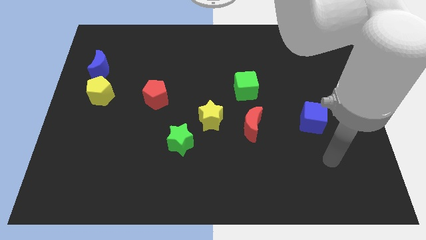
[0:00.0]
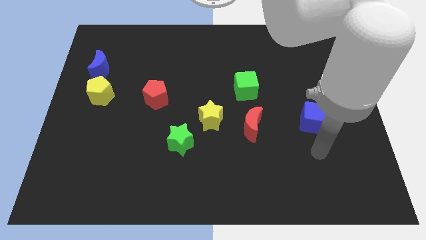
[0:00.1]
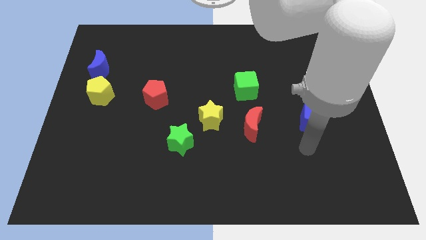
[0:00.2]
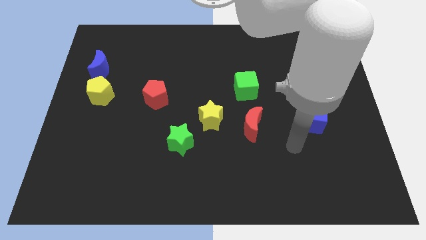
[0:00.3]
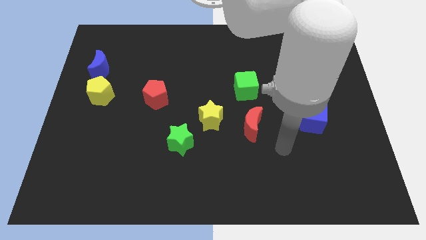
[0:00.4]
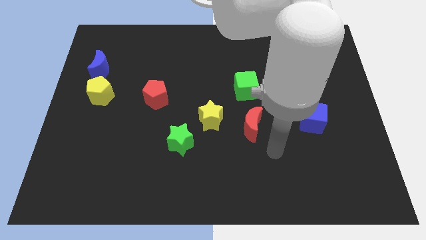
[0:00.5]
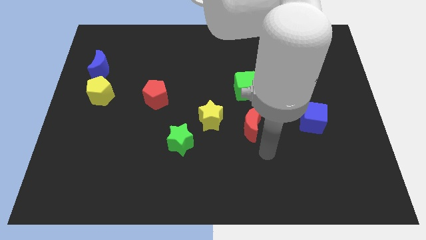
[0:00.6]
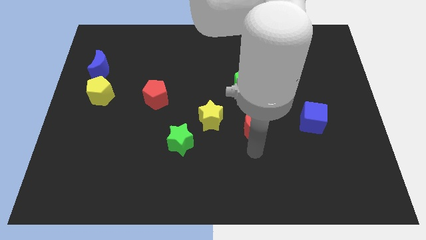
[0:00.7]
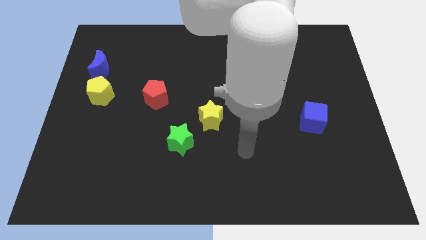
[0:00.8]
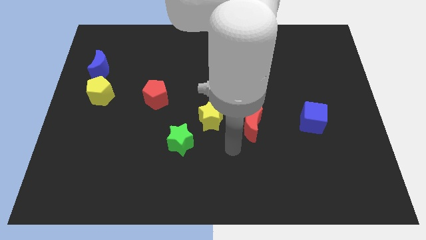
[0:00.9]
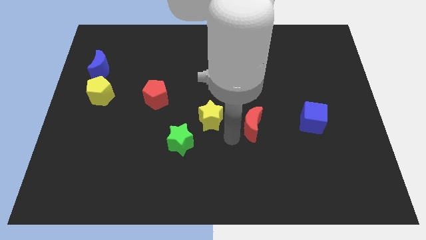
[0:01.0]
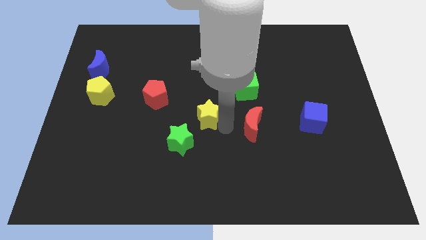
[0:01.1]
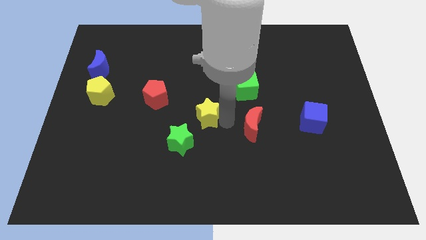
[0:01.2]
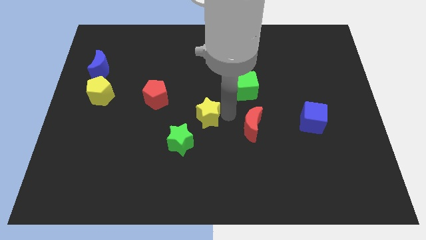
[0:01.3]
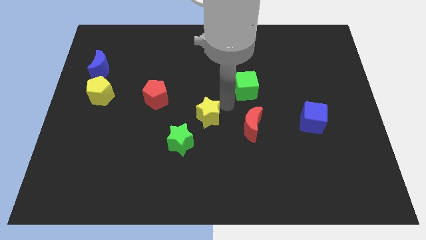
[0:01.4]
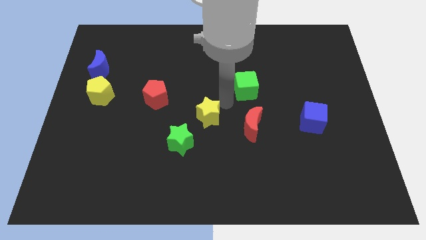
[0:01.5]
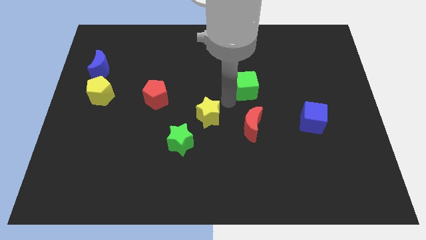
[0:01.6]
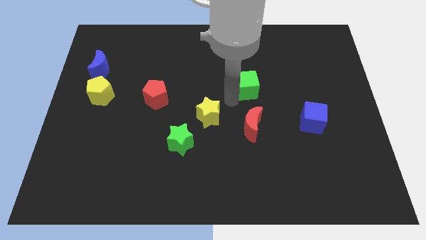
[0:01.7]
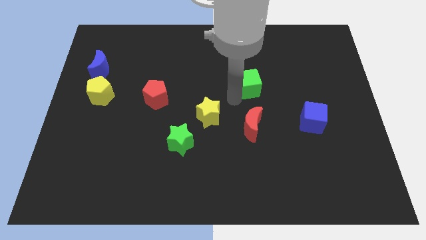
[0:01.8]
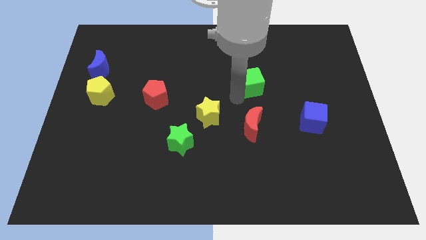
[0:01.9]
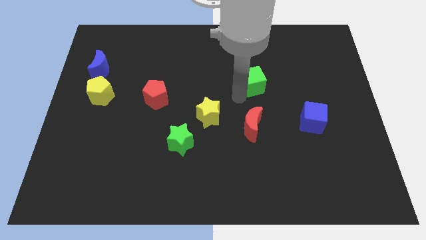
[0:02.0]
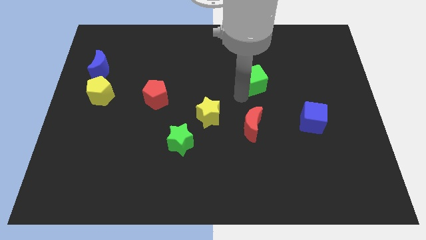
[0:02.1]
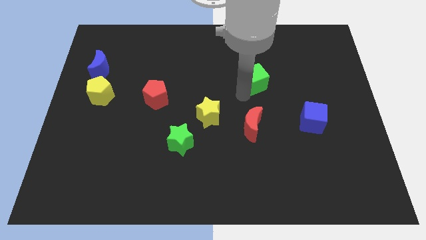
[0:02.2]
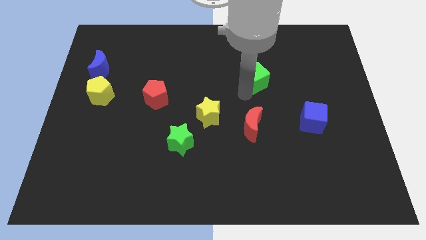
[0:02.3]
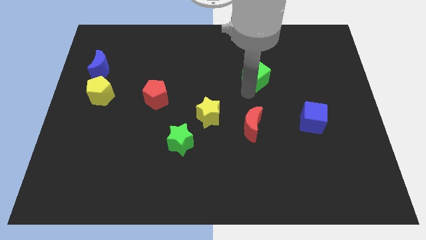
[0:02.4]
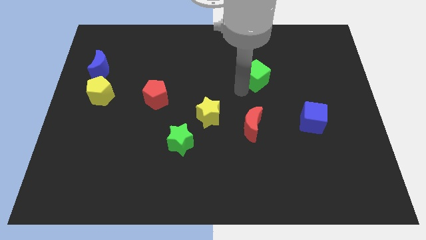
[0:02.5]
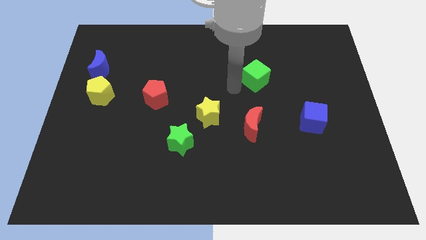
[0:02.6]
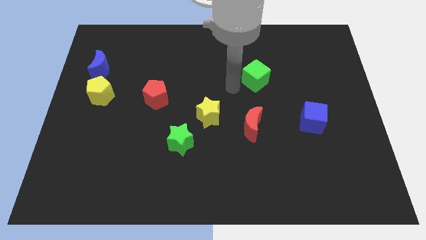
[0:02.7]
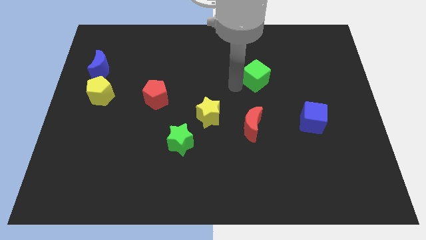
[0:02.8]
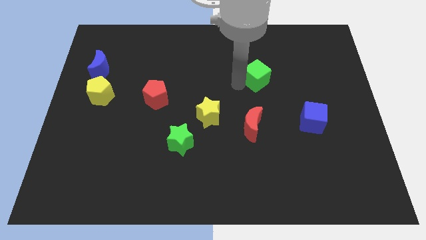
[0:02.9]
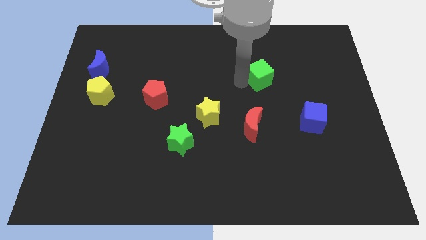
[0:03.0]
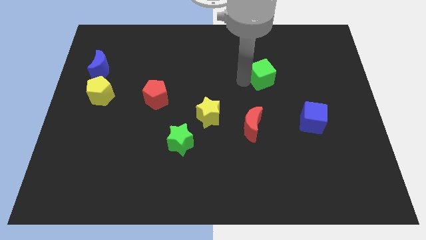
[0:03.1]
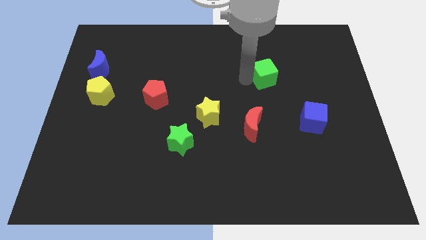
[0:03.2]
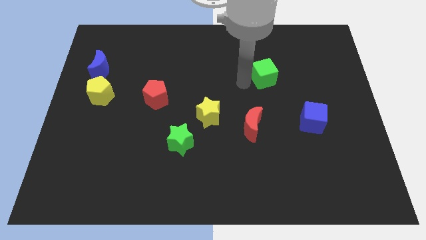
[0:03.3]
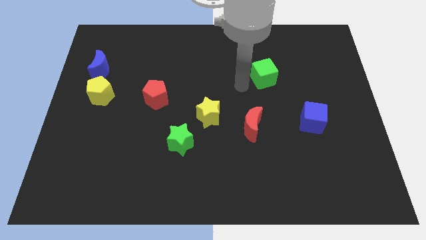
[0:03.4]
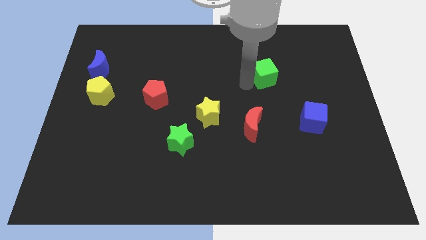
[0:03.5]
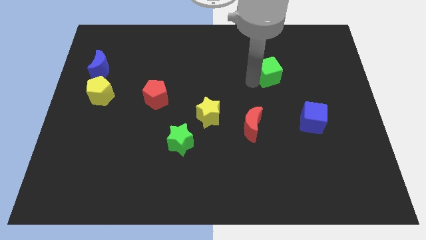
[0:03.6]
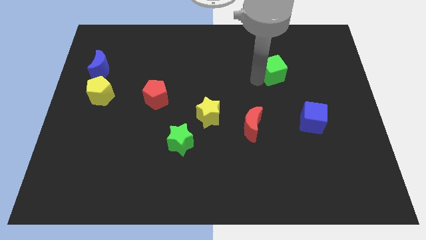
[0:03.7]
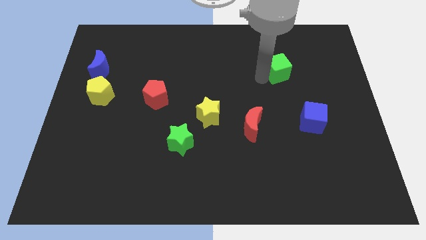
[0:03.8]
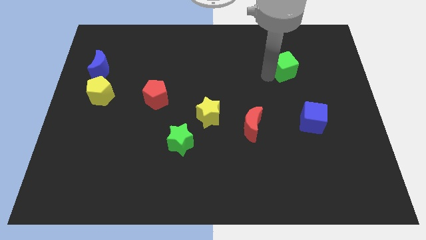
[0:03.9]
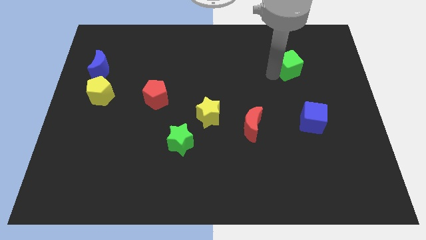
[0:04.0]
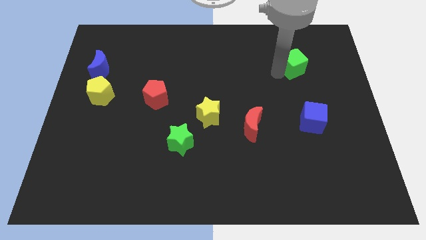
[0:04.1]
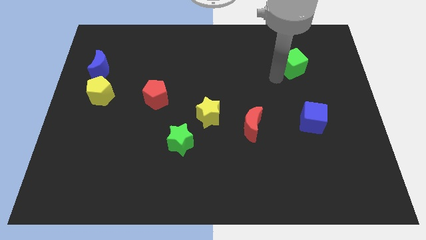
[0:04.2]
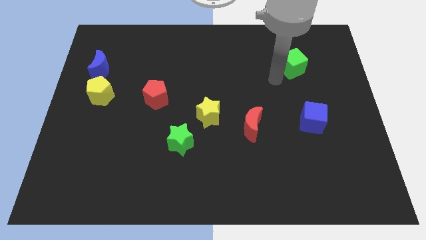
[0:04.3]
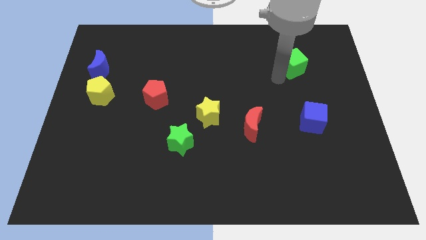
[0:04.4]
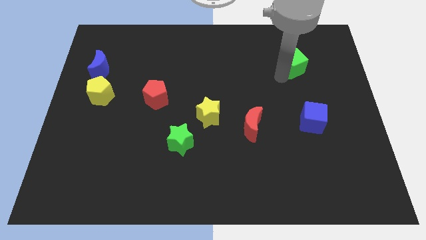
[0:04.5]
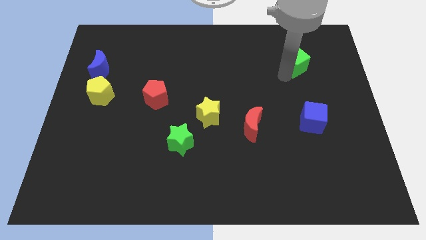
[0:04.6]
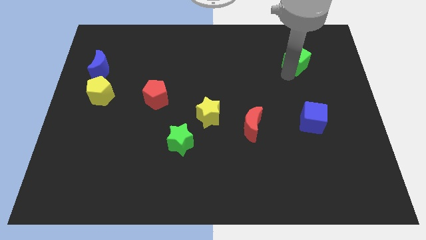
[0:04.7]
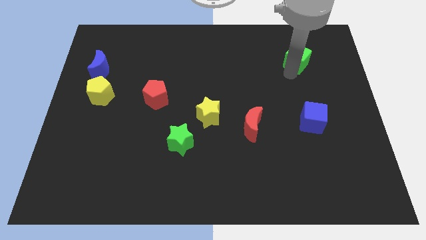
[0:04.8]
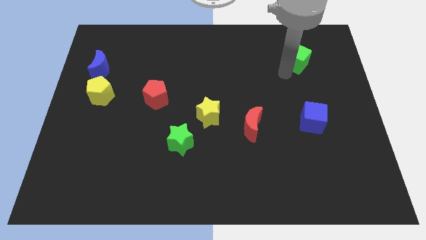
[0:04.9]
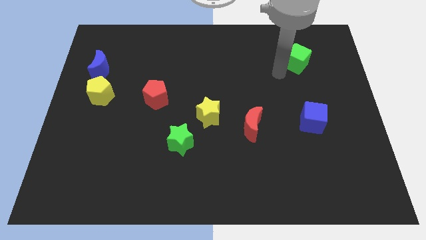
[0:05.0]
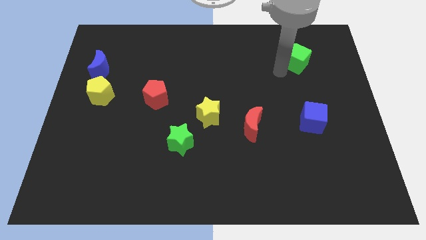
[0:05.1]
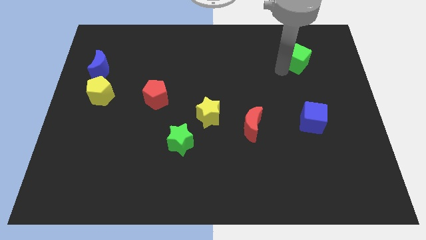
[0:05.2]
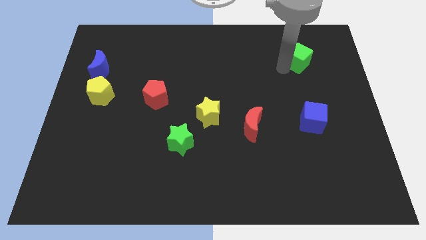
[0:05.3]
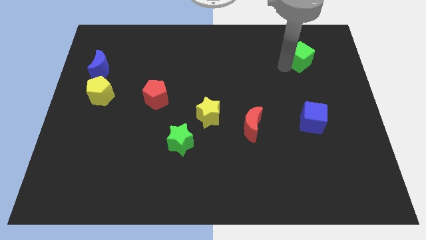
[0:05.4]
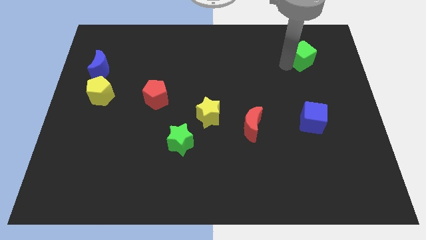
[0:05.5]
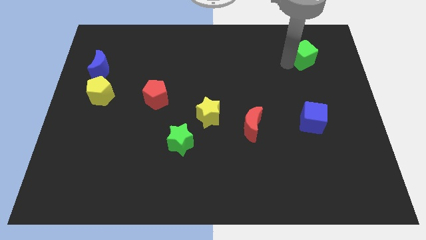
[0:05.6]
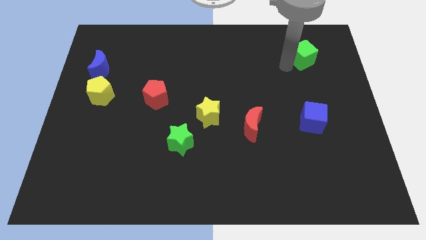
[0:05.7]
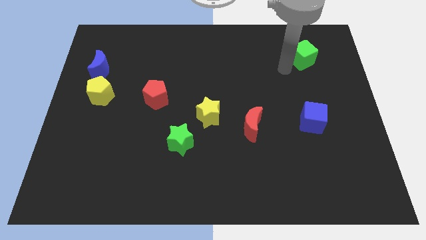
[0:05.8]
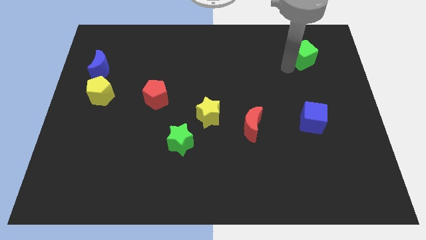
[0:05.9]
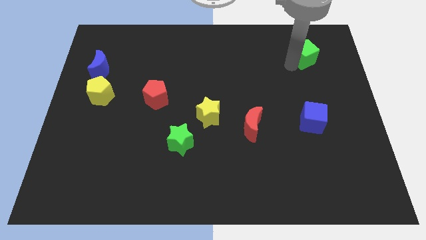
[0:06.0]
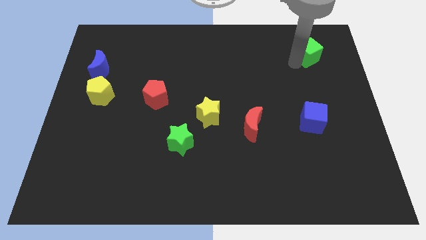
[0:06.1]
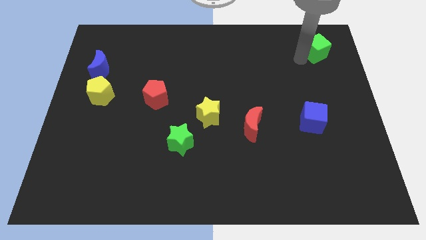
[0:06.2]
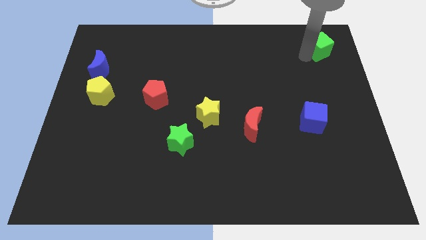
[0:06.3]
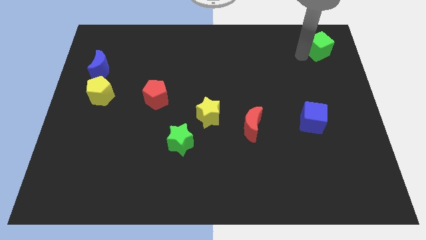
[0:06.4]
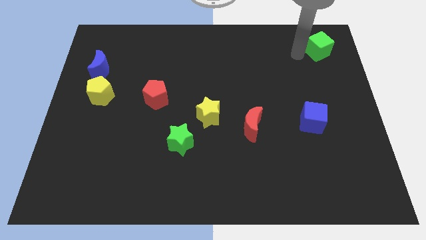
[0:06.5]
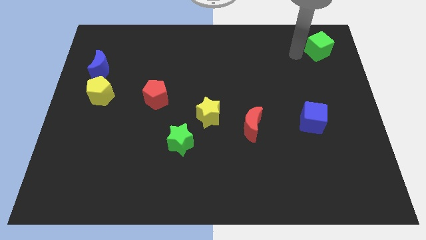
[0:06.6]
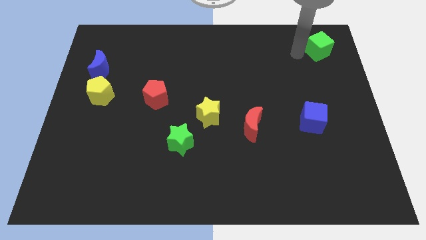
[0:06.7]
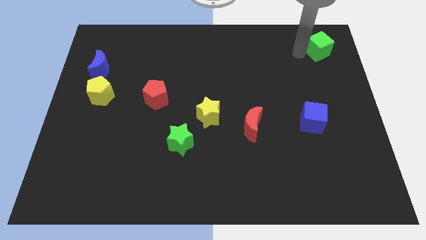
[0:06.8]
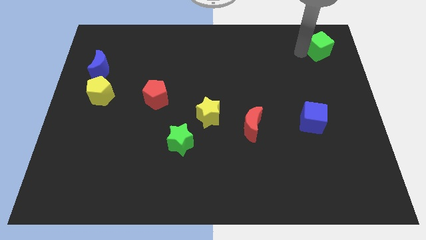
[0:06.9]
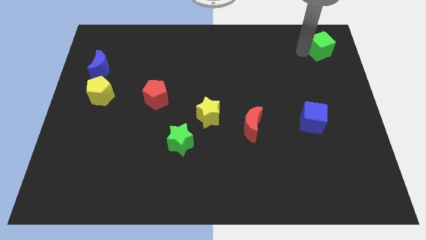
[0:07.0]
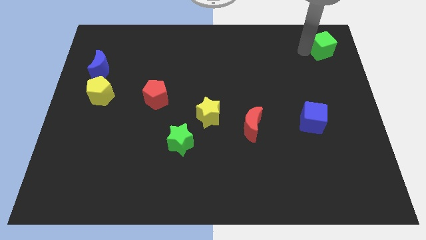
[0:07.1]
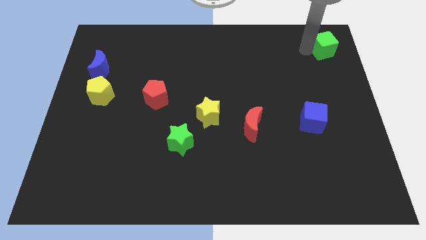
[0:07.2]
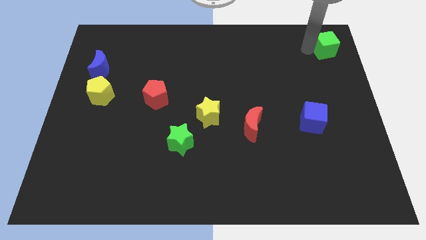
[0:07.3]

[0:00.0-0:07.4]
push the green cube to the top right corner
